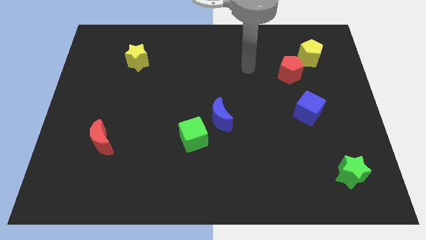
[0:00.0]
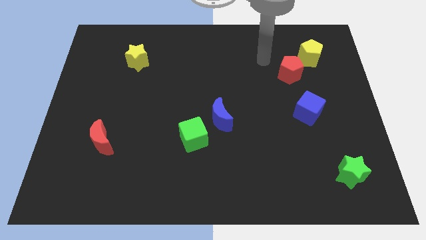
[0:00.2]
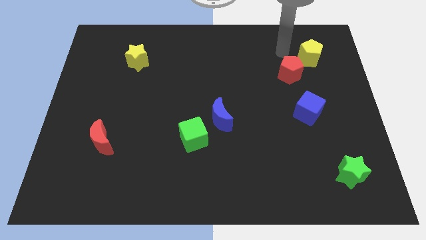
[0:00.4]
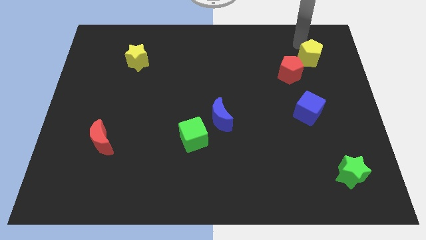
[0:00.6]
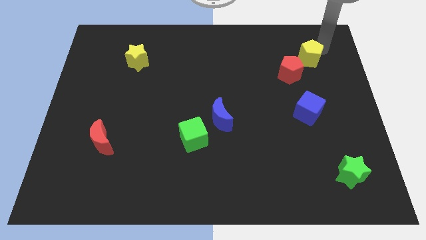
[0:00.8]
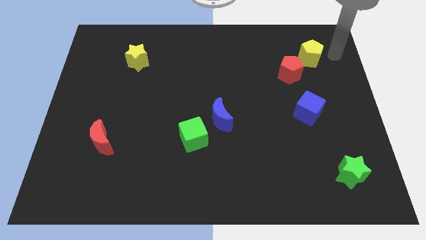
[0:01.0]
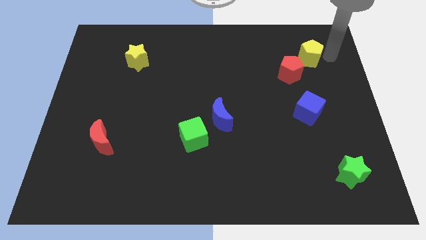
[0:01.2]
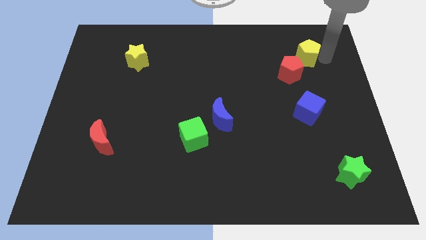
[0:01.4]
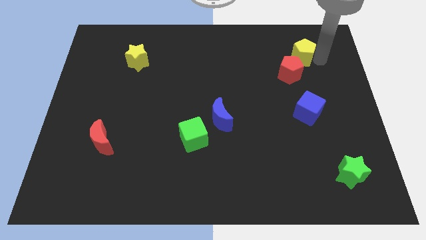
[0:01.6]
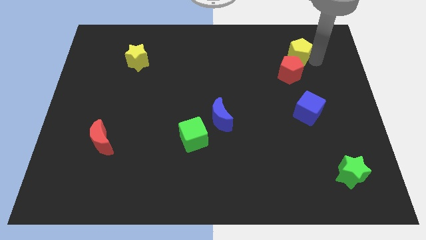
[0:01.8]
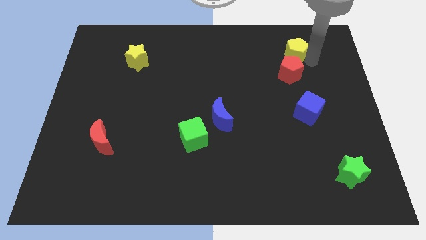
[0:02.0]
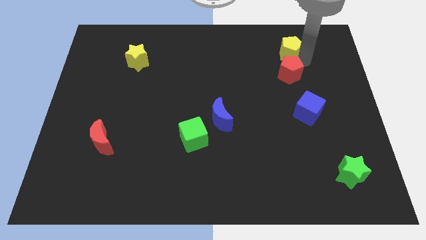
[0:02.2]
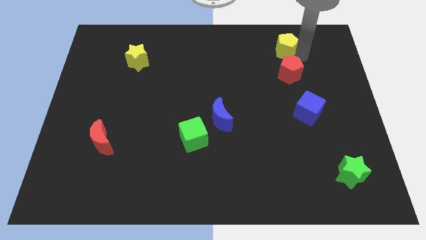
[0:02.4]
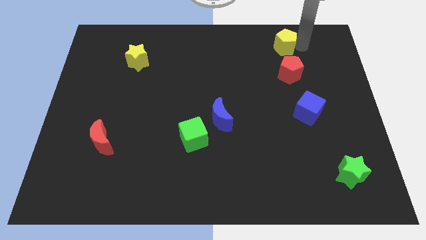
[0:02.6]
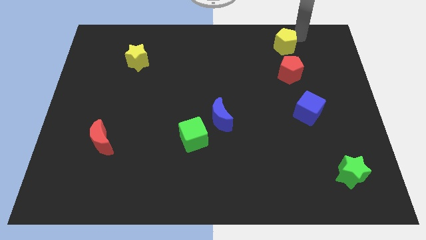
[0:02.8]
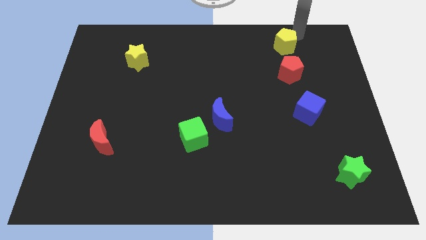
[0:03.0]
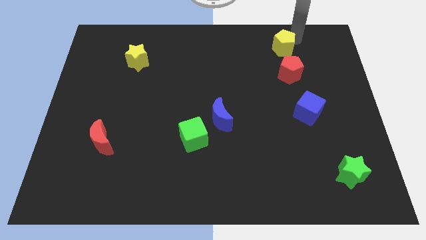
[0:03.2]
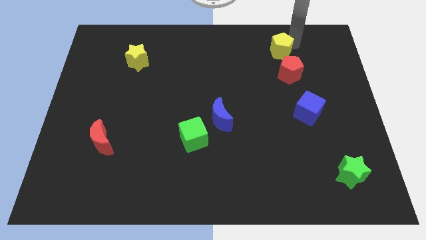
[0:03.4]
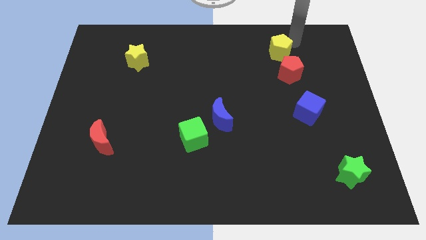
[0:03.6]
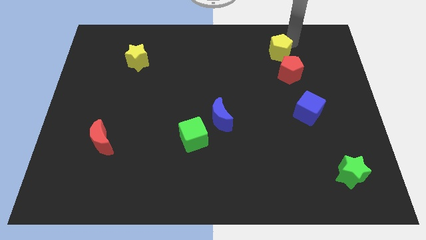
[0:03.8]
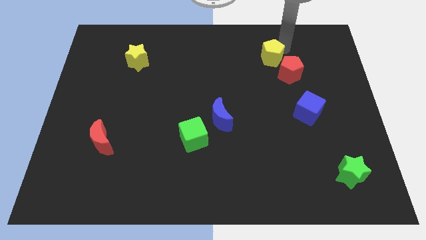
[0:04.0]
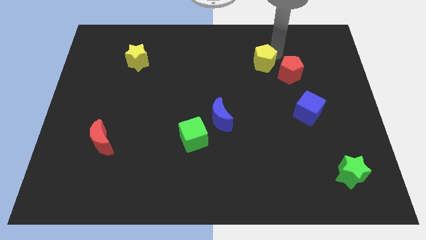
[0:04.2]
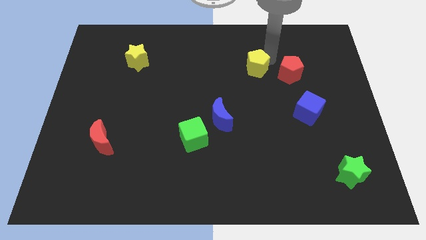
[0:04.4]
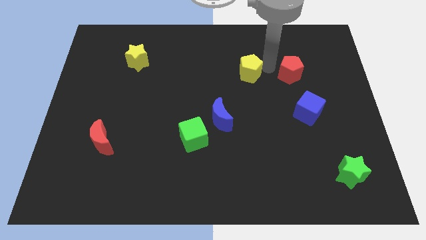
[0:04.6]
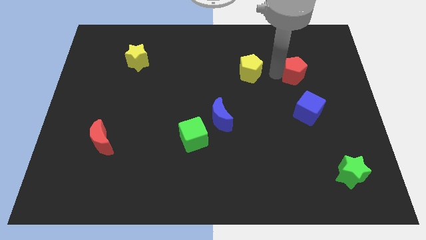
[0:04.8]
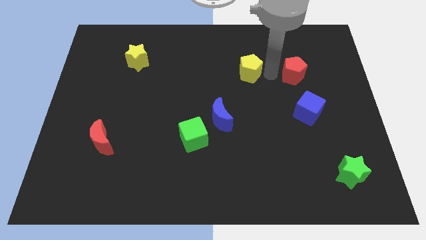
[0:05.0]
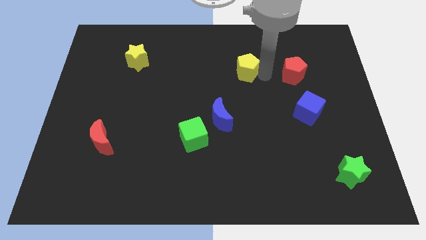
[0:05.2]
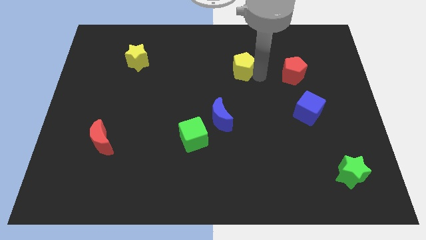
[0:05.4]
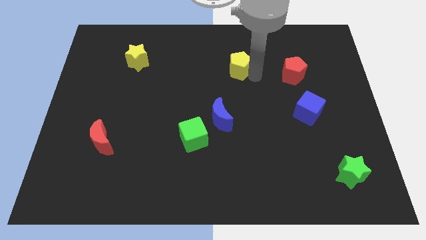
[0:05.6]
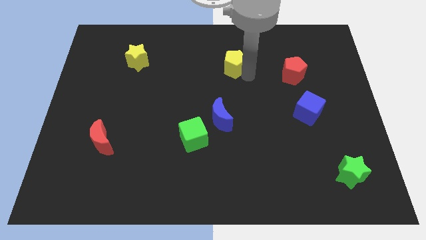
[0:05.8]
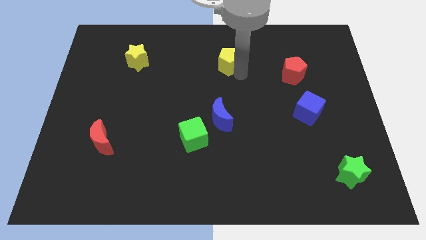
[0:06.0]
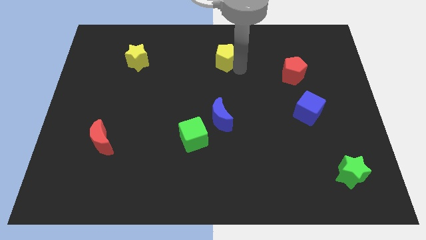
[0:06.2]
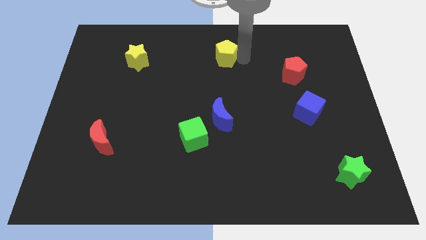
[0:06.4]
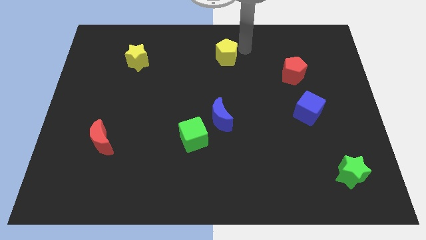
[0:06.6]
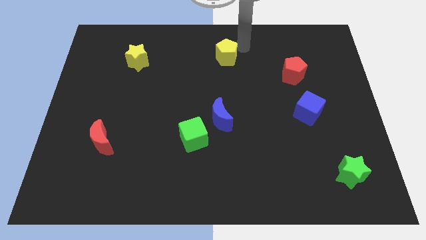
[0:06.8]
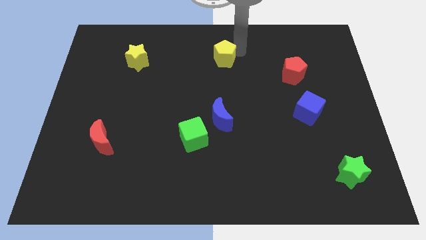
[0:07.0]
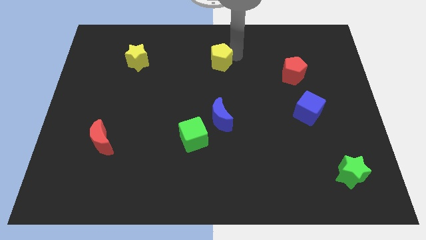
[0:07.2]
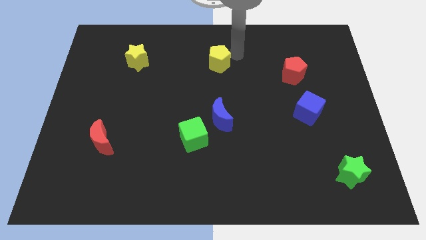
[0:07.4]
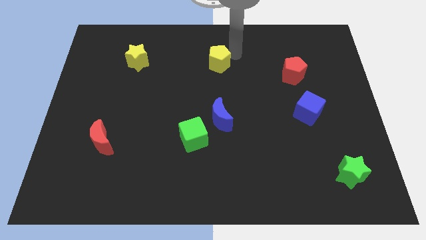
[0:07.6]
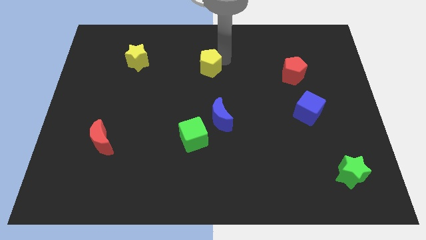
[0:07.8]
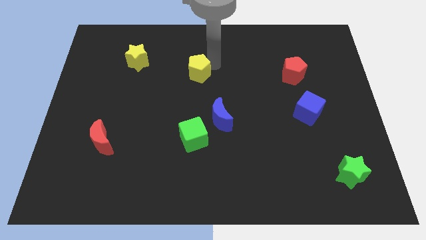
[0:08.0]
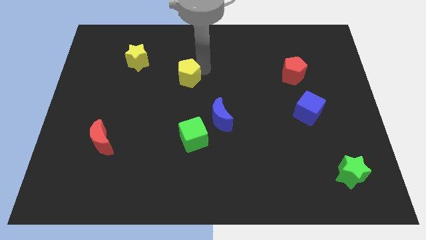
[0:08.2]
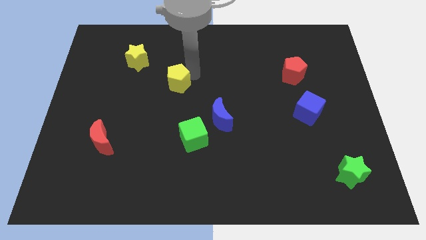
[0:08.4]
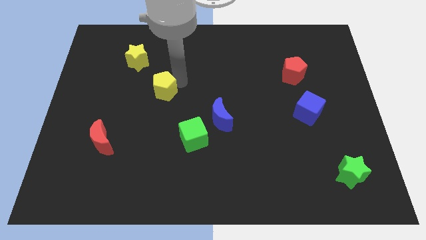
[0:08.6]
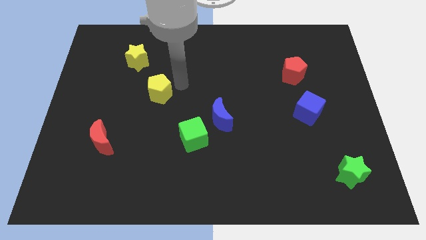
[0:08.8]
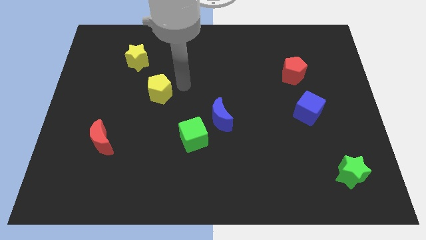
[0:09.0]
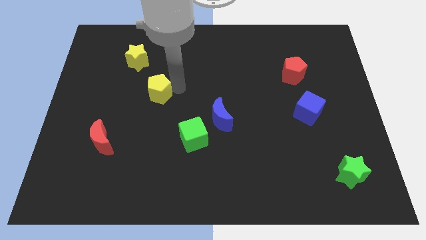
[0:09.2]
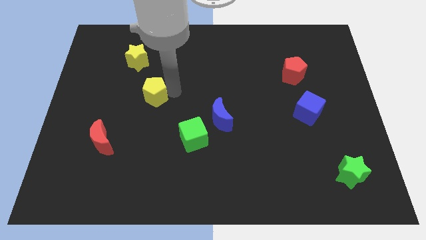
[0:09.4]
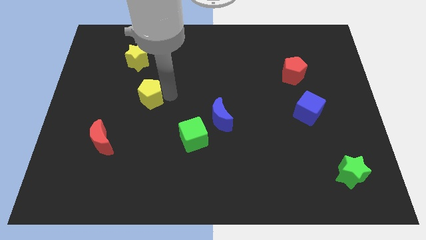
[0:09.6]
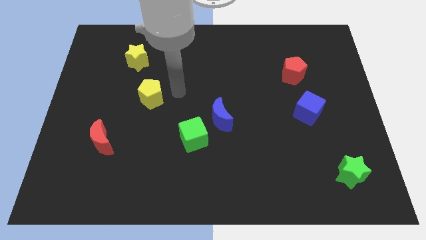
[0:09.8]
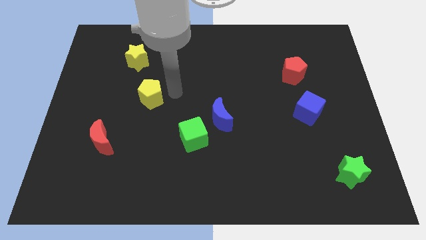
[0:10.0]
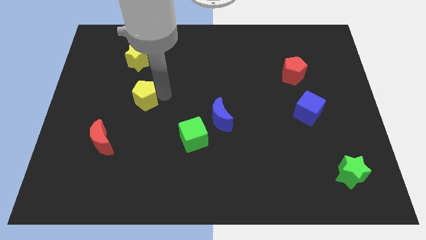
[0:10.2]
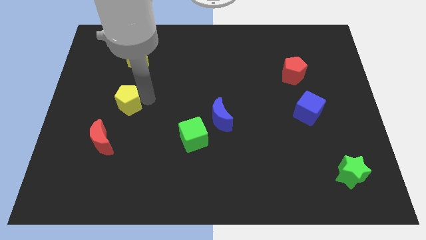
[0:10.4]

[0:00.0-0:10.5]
slide the yellow pentagon to the top side of the red moon

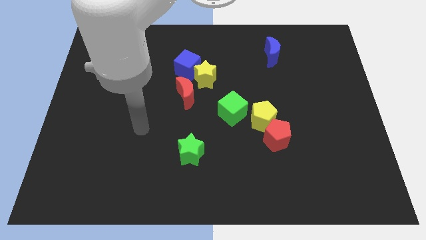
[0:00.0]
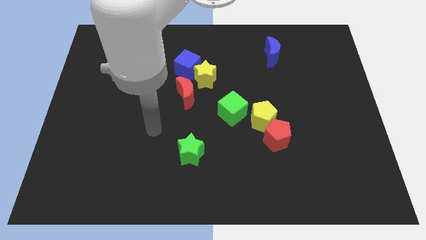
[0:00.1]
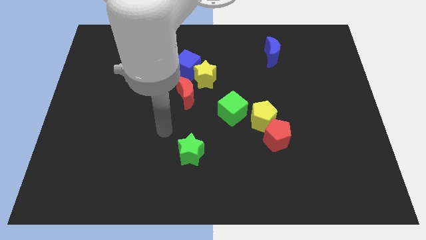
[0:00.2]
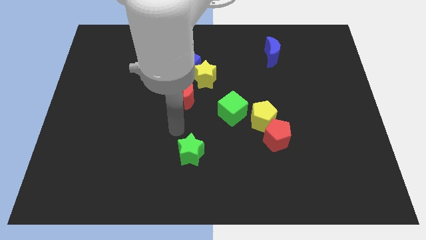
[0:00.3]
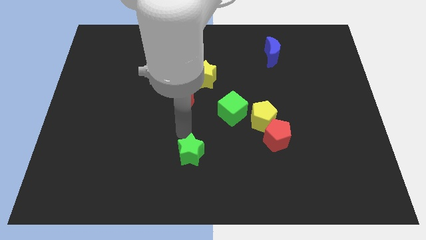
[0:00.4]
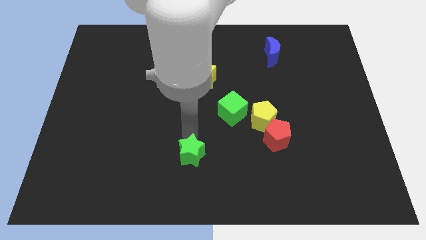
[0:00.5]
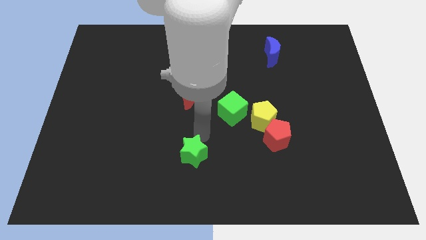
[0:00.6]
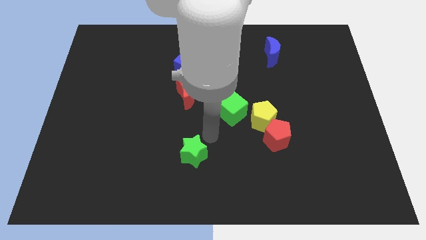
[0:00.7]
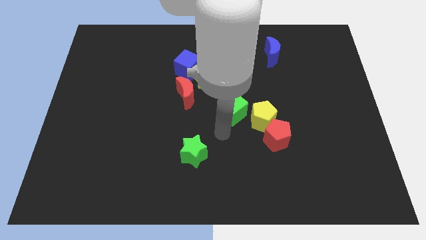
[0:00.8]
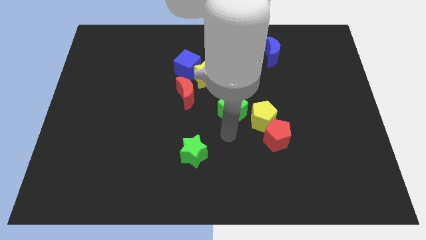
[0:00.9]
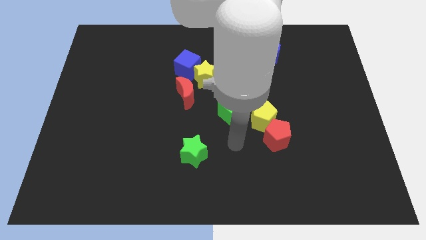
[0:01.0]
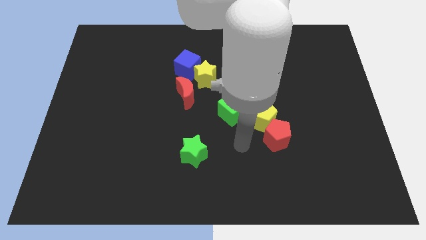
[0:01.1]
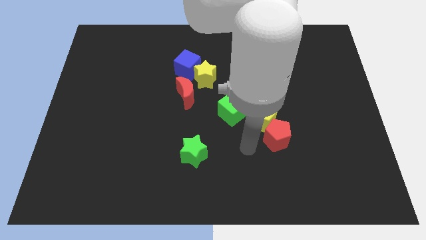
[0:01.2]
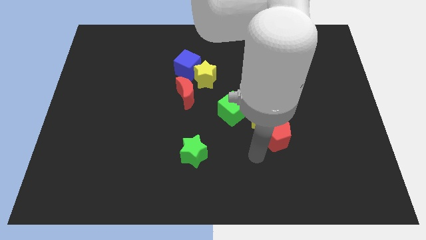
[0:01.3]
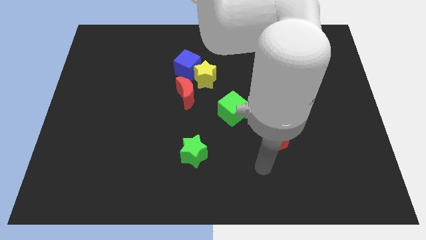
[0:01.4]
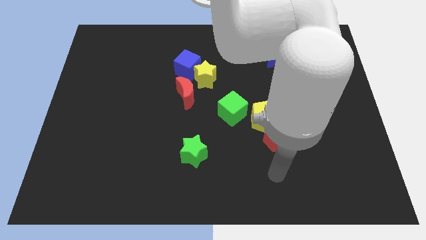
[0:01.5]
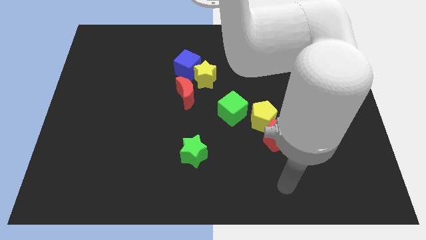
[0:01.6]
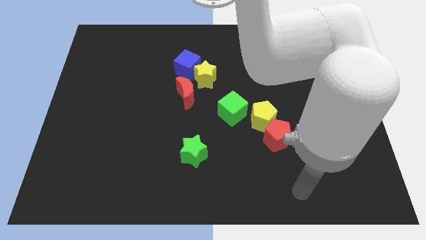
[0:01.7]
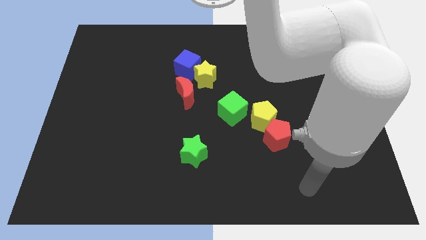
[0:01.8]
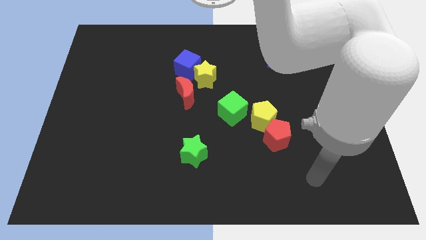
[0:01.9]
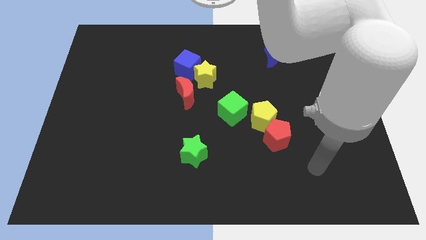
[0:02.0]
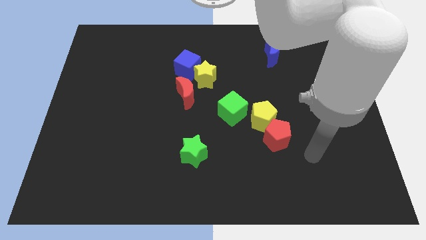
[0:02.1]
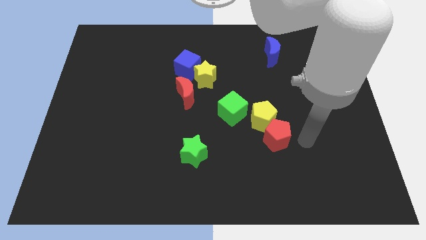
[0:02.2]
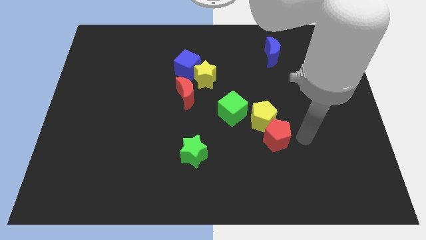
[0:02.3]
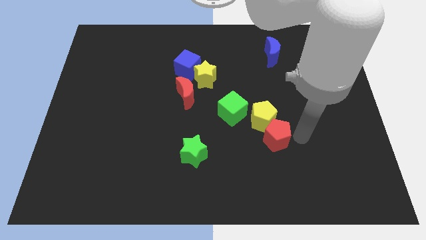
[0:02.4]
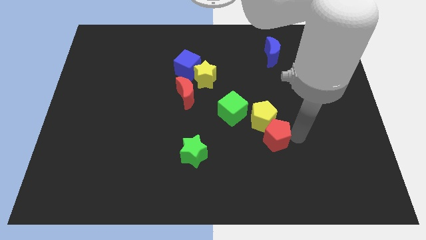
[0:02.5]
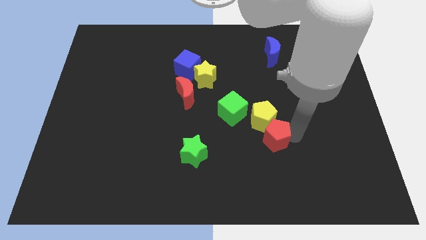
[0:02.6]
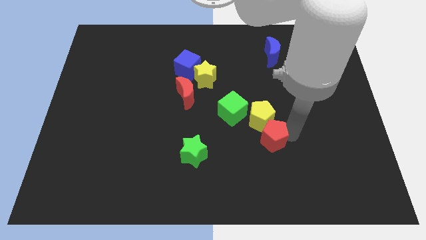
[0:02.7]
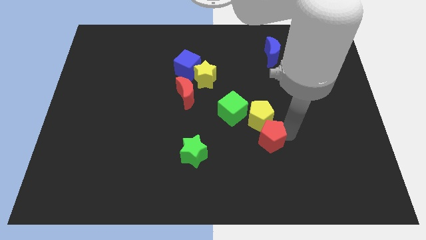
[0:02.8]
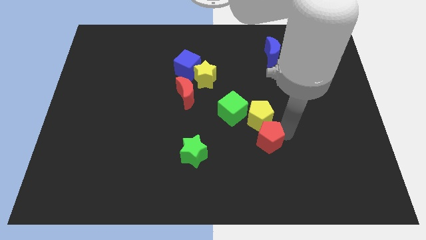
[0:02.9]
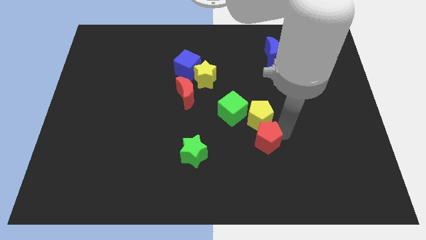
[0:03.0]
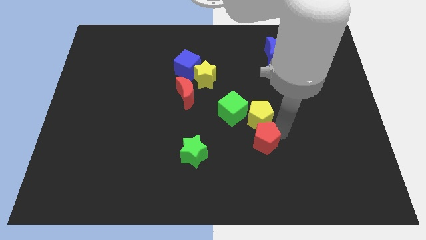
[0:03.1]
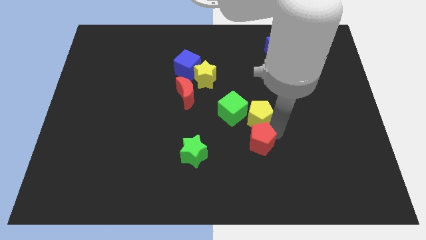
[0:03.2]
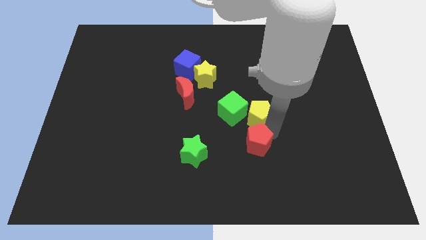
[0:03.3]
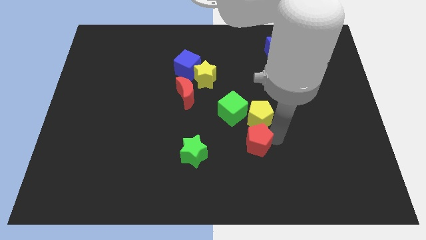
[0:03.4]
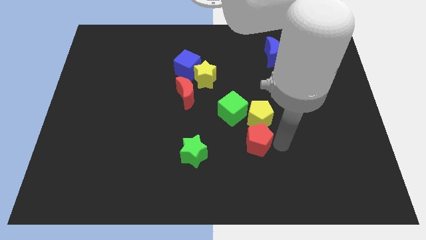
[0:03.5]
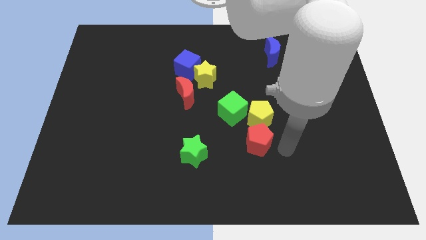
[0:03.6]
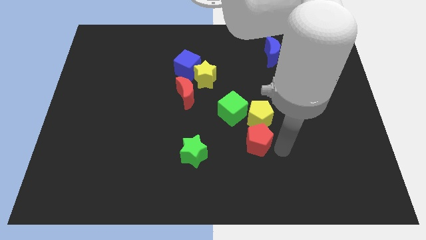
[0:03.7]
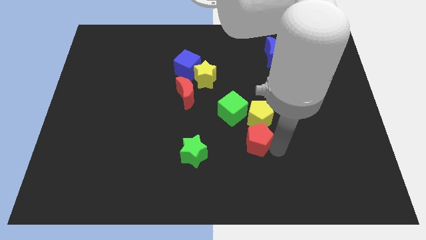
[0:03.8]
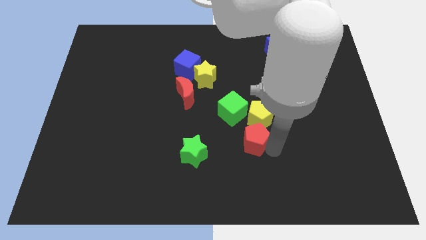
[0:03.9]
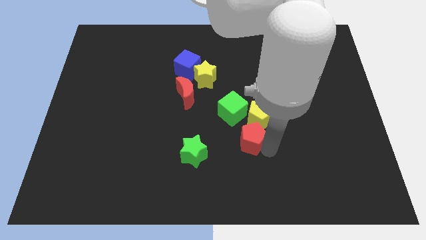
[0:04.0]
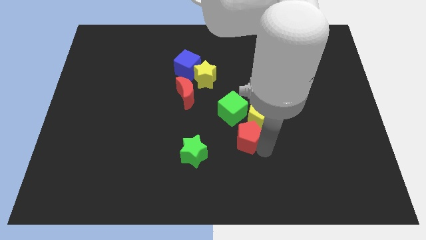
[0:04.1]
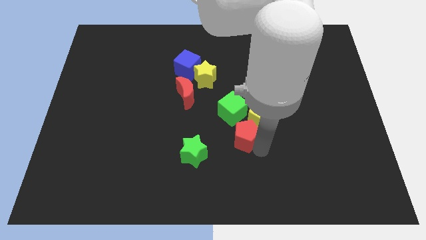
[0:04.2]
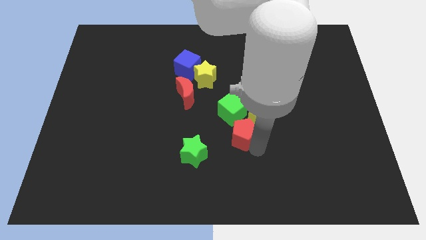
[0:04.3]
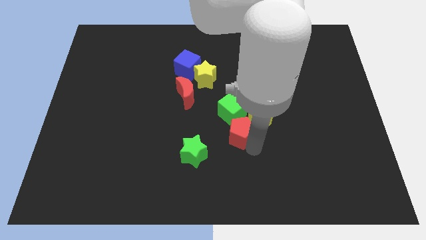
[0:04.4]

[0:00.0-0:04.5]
push the red pentagon diagonally up and to the right of the green star
